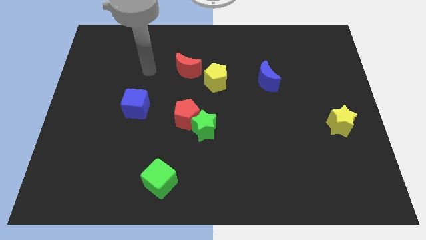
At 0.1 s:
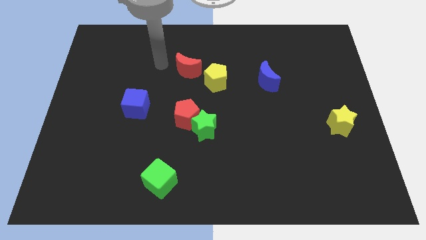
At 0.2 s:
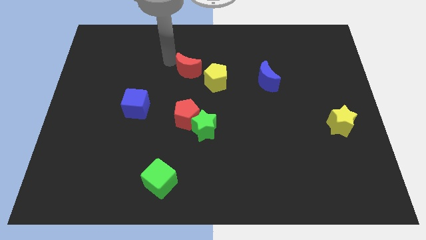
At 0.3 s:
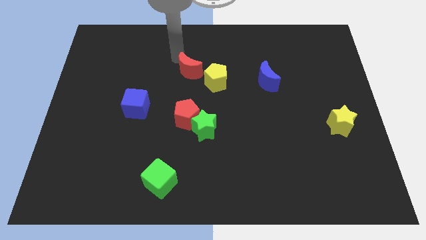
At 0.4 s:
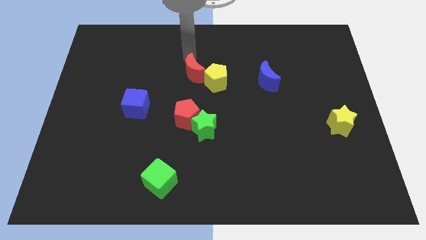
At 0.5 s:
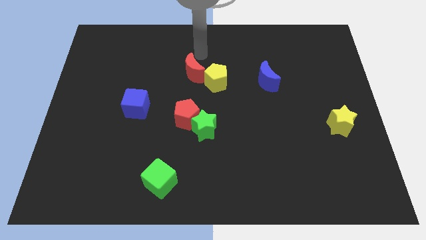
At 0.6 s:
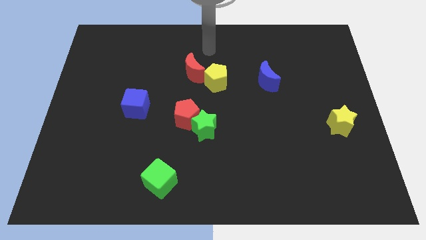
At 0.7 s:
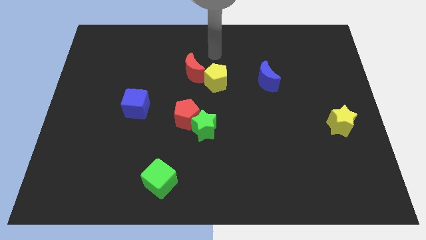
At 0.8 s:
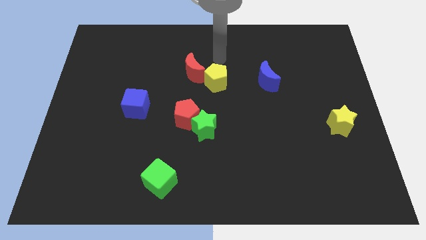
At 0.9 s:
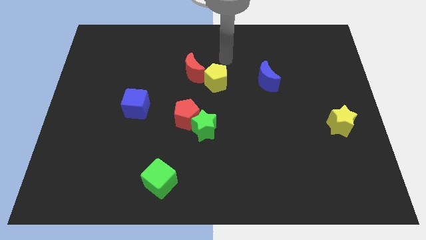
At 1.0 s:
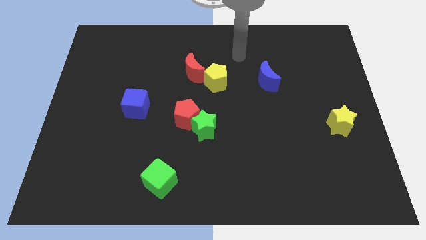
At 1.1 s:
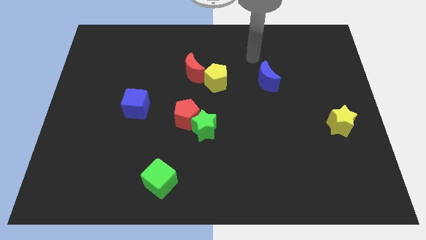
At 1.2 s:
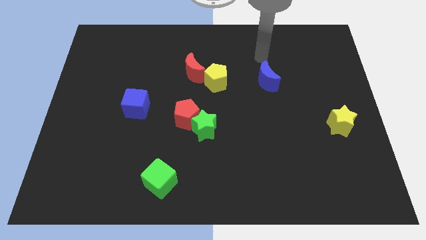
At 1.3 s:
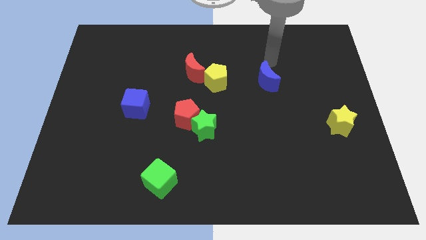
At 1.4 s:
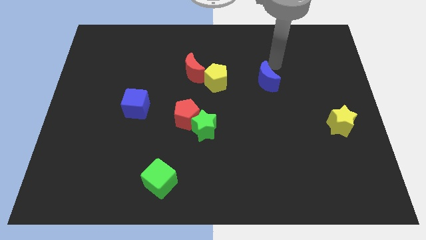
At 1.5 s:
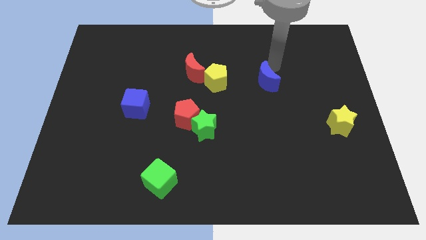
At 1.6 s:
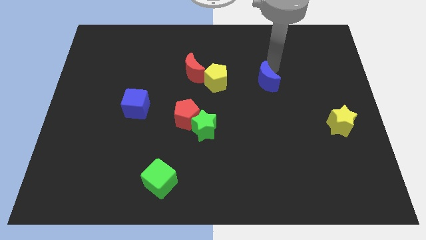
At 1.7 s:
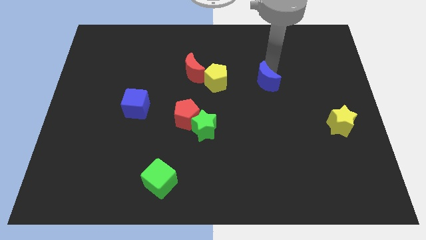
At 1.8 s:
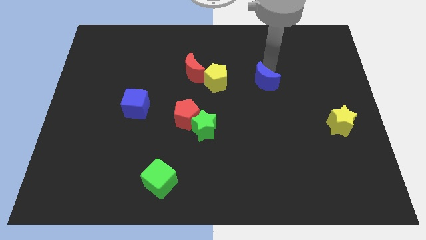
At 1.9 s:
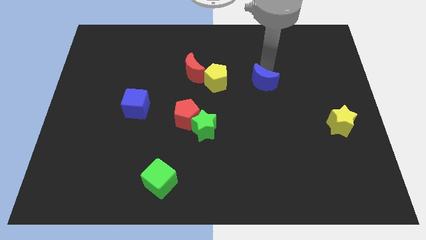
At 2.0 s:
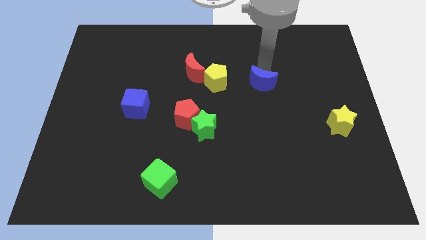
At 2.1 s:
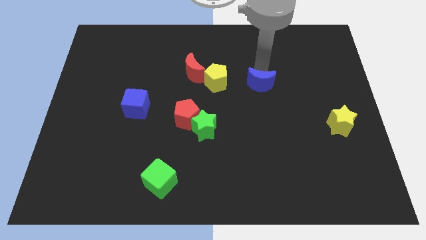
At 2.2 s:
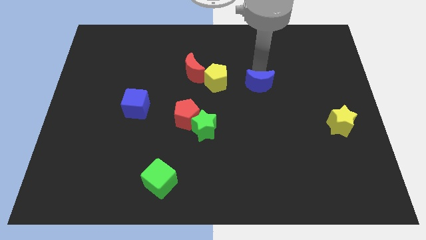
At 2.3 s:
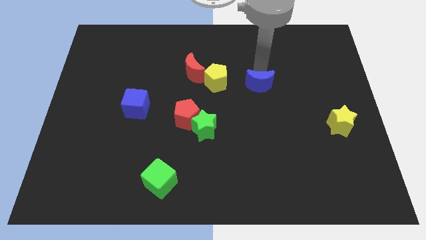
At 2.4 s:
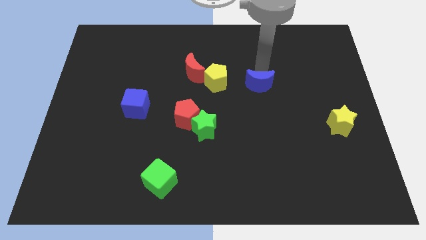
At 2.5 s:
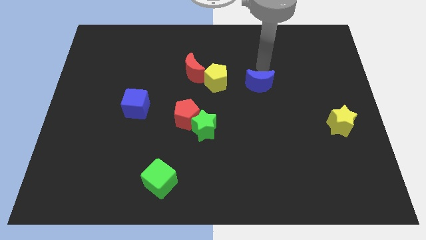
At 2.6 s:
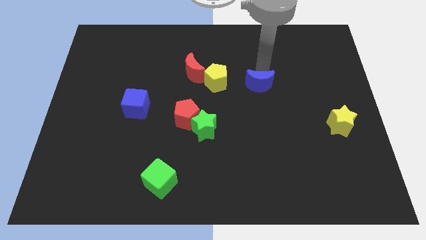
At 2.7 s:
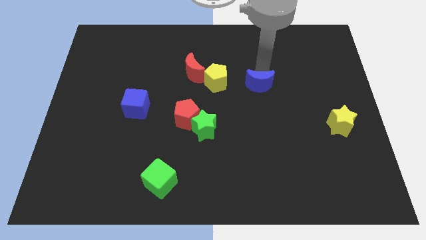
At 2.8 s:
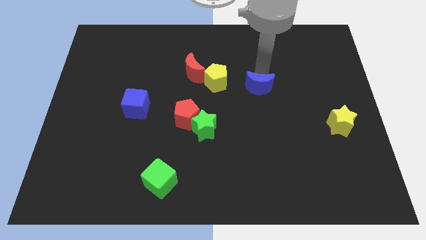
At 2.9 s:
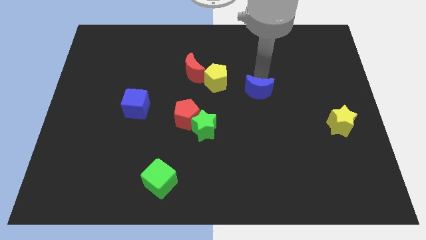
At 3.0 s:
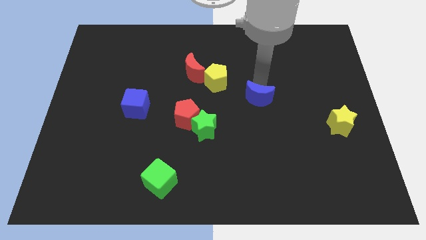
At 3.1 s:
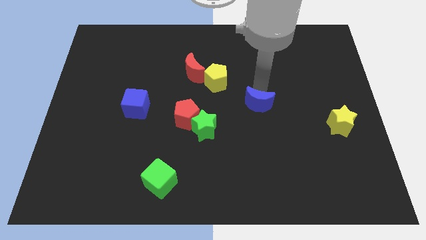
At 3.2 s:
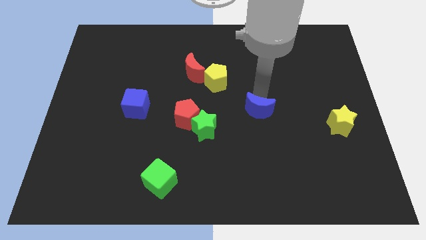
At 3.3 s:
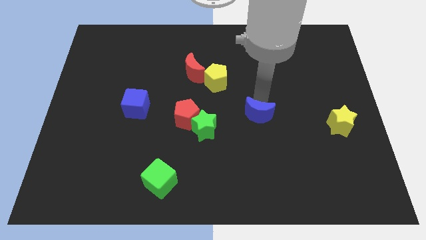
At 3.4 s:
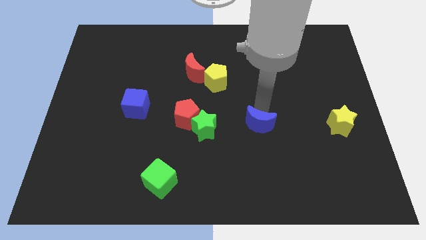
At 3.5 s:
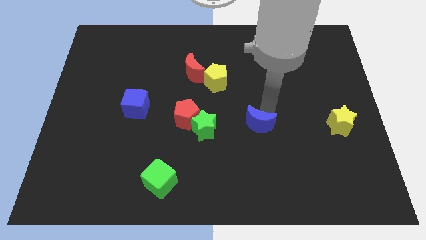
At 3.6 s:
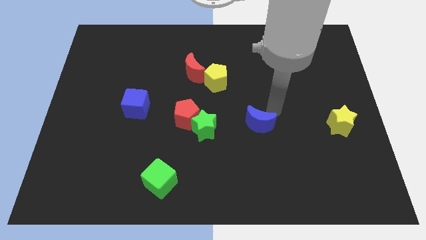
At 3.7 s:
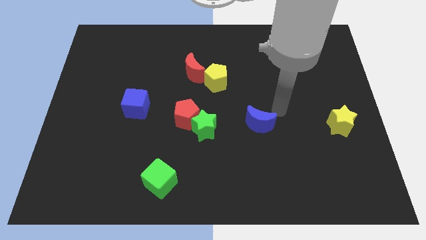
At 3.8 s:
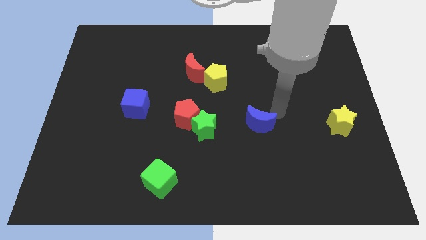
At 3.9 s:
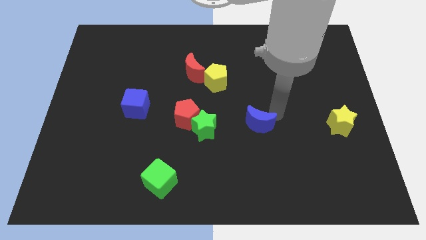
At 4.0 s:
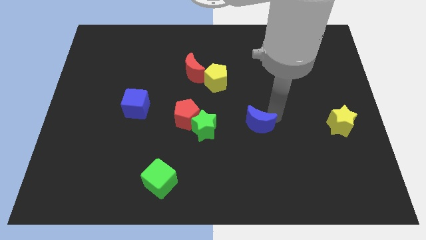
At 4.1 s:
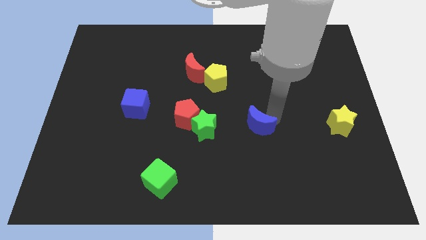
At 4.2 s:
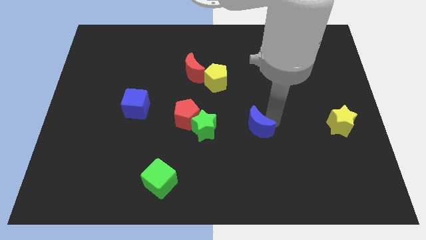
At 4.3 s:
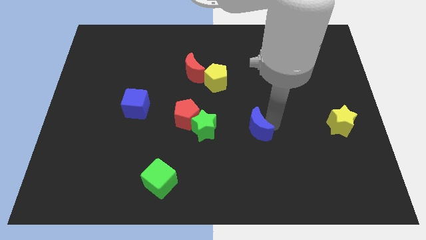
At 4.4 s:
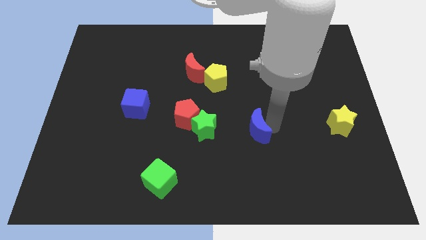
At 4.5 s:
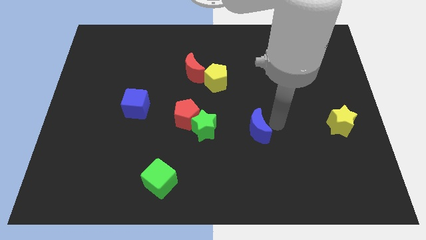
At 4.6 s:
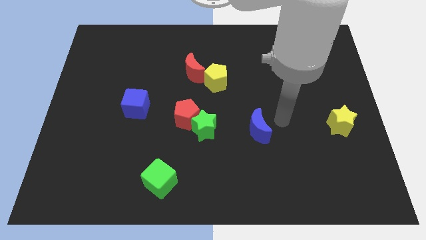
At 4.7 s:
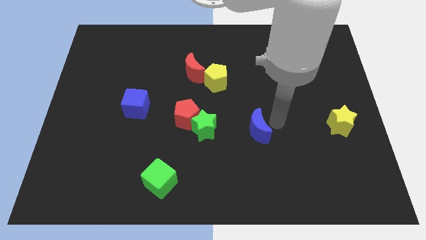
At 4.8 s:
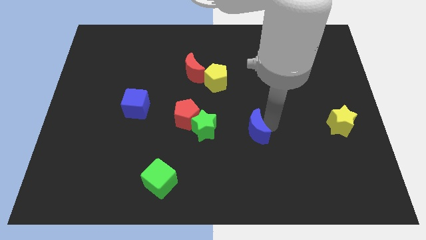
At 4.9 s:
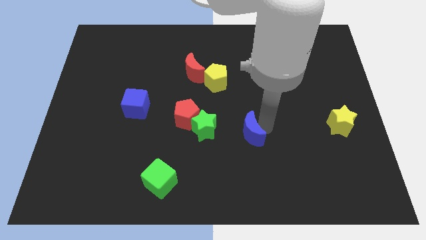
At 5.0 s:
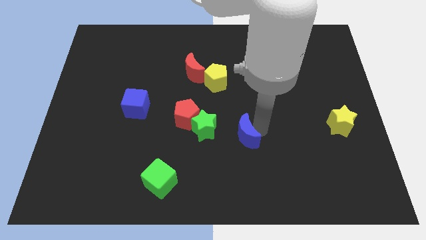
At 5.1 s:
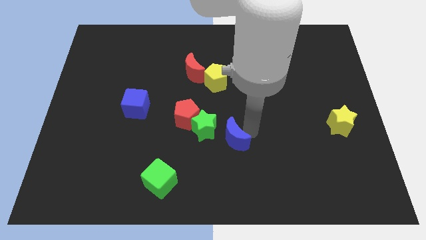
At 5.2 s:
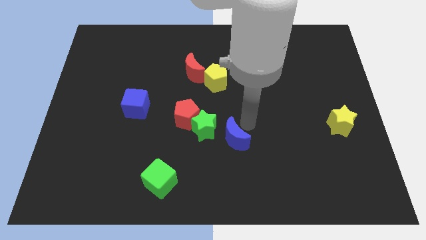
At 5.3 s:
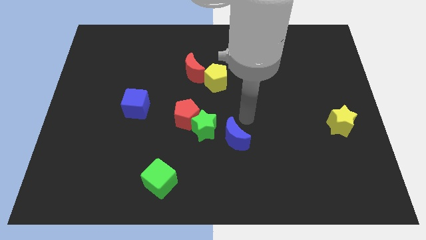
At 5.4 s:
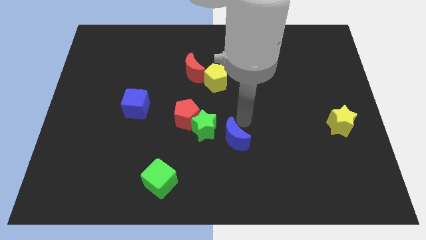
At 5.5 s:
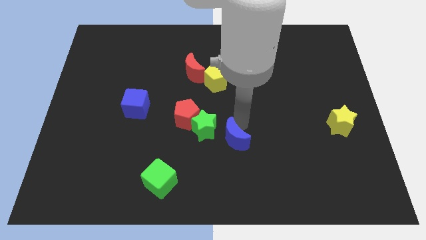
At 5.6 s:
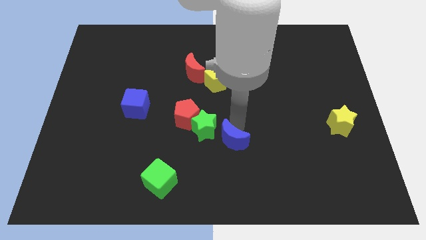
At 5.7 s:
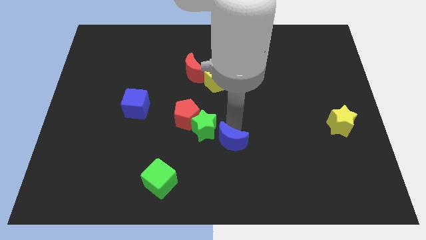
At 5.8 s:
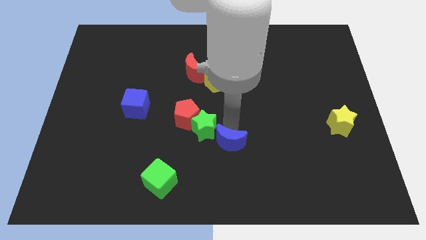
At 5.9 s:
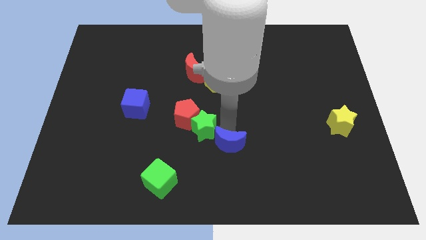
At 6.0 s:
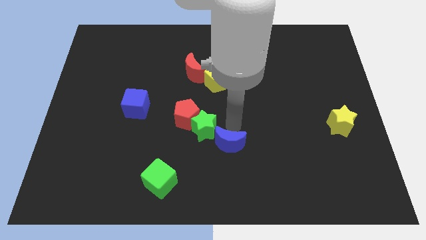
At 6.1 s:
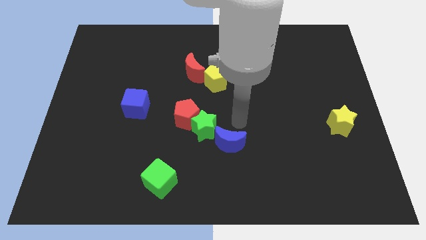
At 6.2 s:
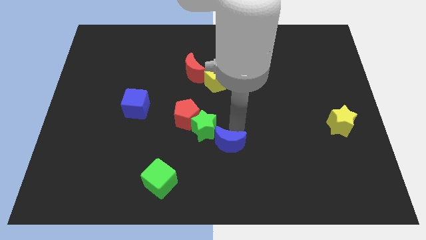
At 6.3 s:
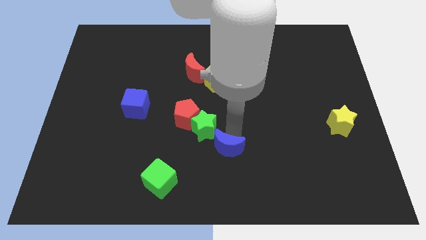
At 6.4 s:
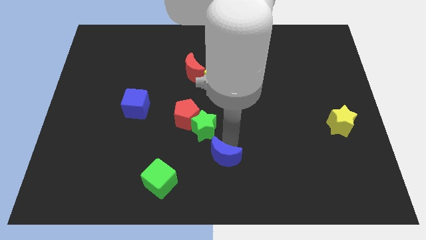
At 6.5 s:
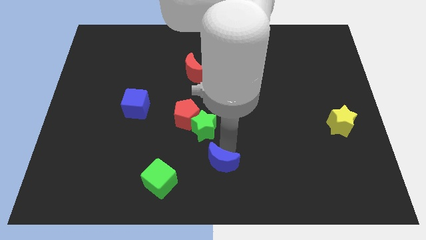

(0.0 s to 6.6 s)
slide the blue moon to the right of the green cube

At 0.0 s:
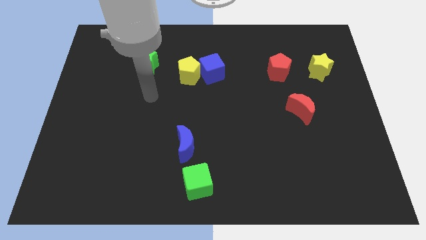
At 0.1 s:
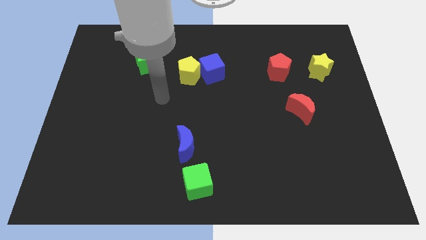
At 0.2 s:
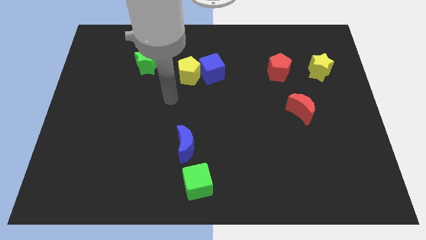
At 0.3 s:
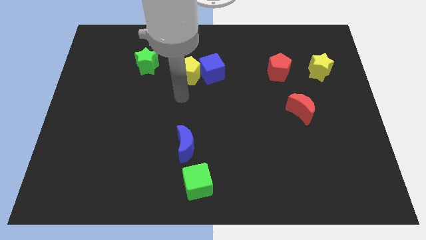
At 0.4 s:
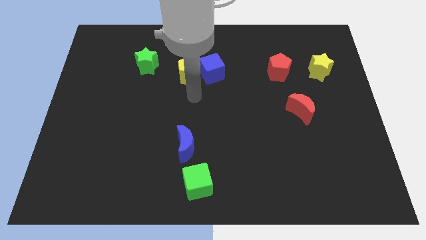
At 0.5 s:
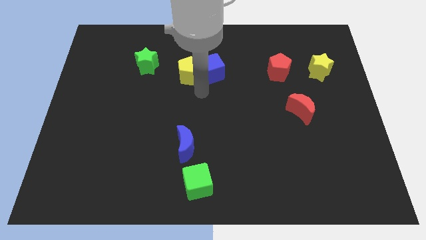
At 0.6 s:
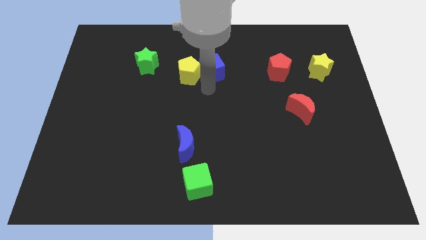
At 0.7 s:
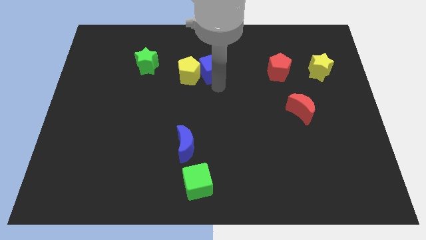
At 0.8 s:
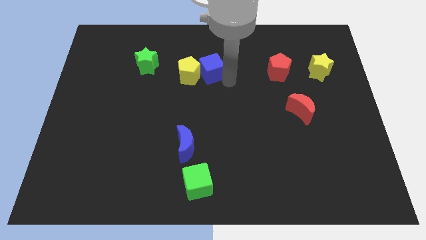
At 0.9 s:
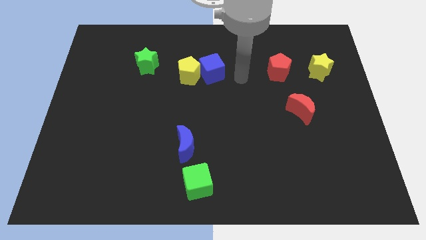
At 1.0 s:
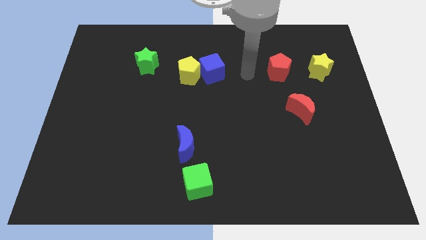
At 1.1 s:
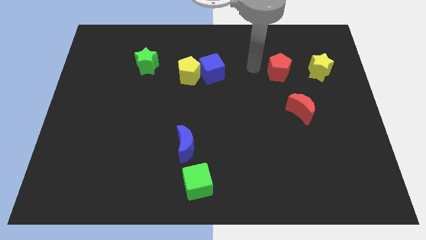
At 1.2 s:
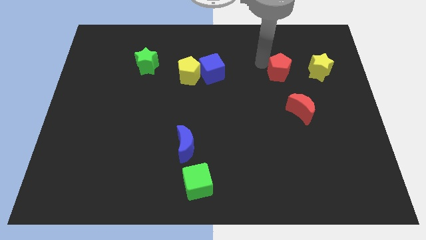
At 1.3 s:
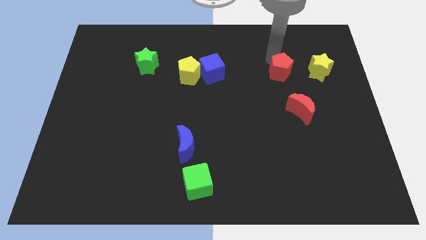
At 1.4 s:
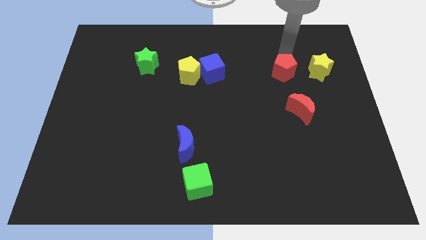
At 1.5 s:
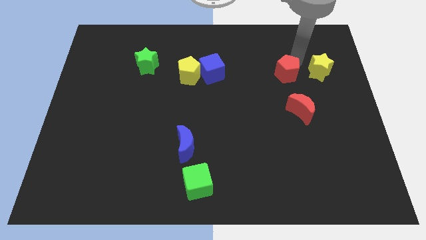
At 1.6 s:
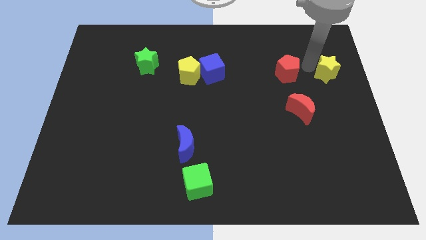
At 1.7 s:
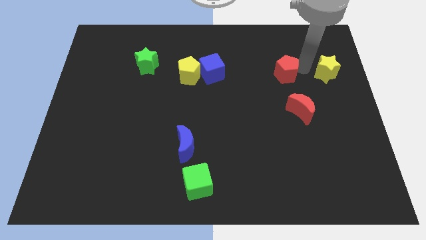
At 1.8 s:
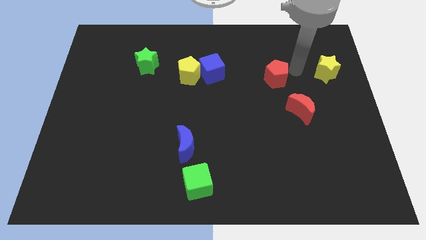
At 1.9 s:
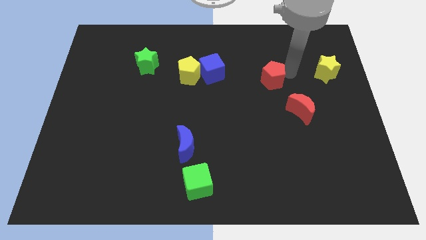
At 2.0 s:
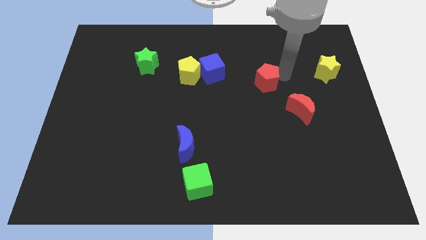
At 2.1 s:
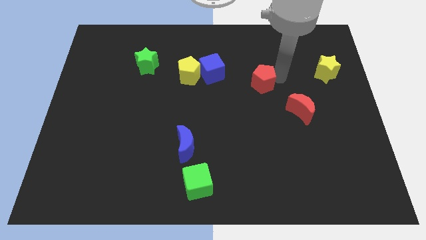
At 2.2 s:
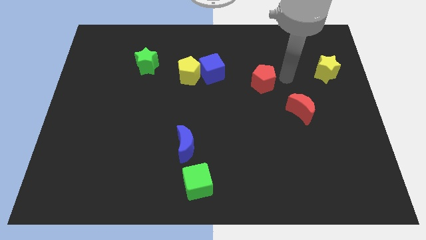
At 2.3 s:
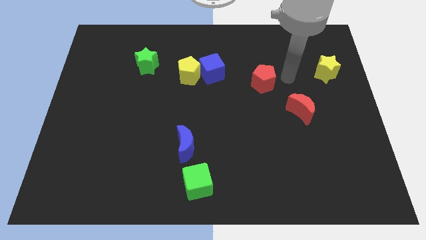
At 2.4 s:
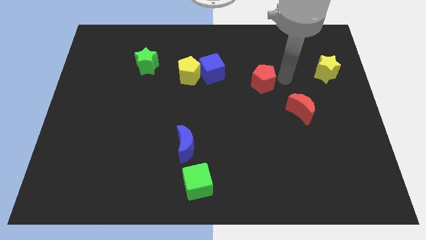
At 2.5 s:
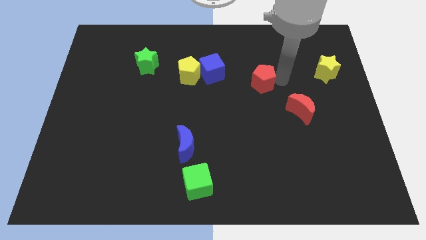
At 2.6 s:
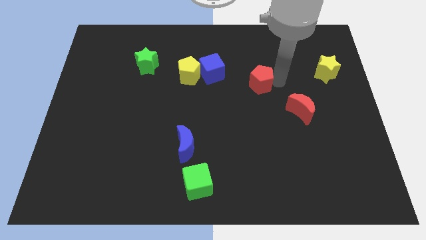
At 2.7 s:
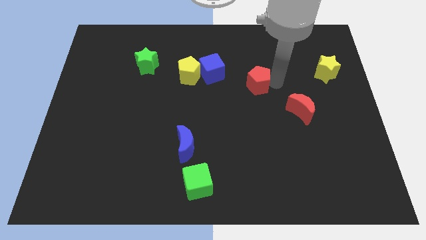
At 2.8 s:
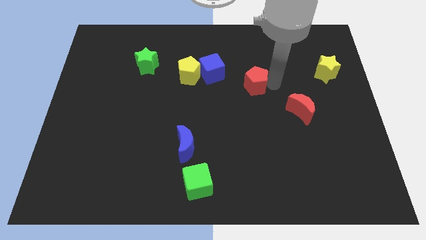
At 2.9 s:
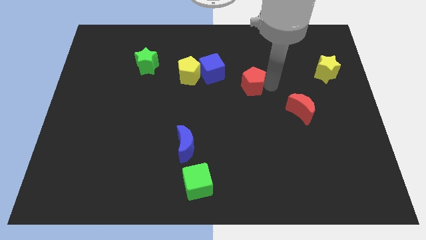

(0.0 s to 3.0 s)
put the red pentagon to the bottom right side of the blue cube
